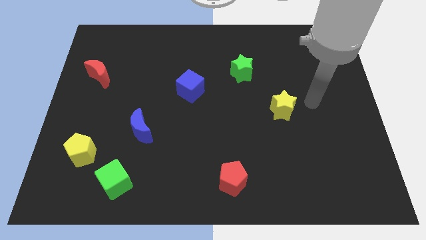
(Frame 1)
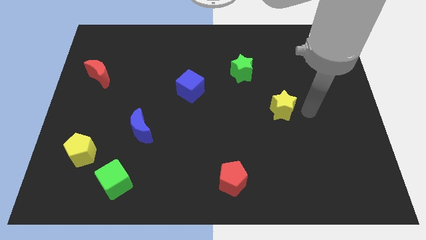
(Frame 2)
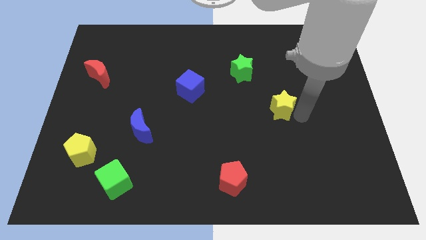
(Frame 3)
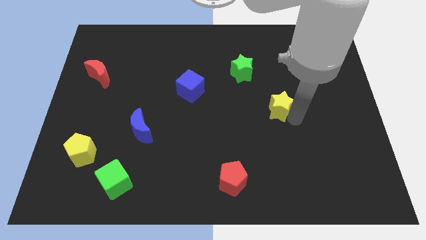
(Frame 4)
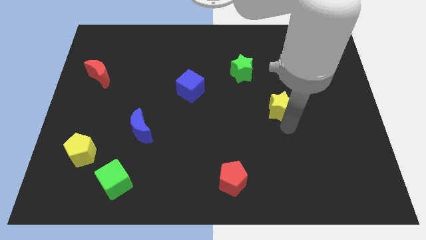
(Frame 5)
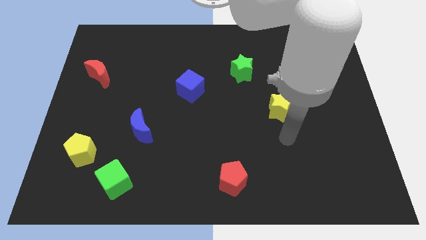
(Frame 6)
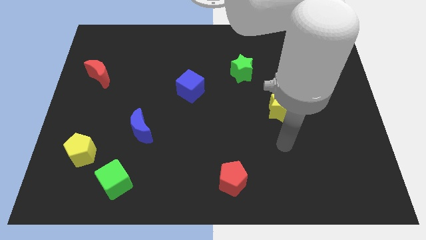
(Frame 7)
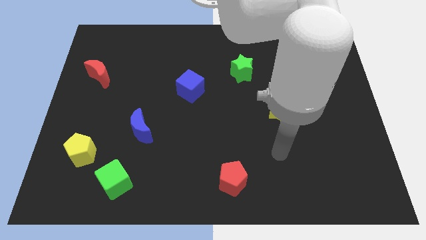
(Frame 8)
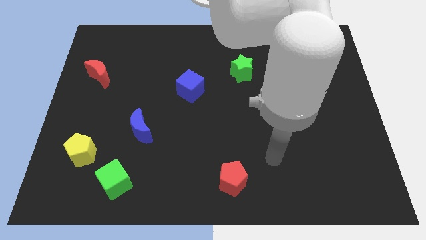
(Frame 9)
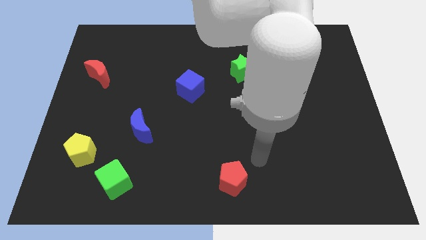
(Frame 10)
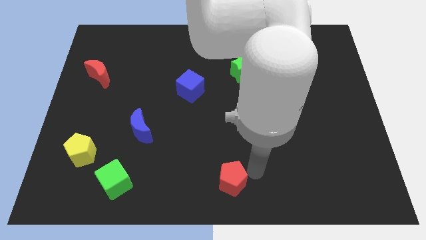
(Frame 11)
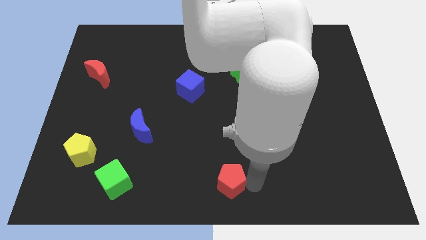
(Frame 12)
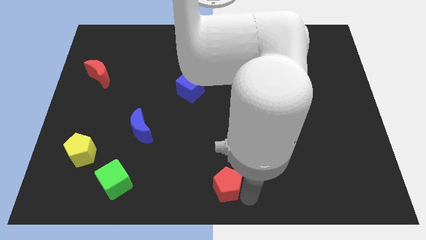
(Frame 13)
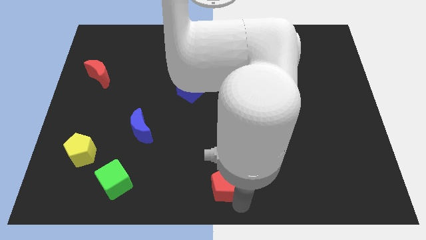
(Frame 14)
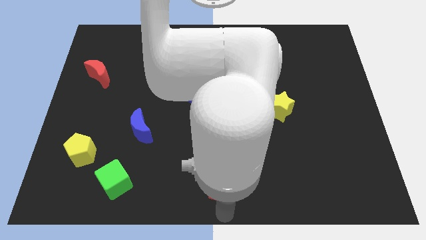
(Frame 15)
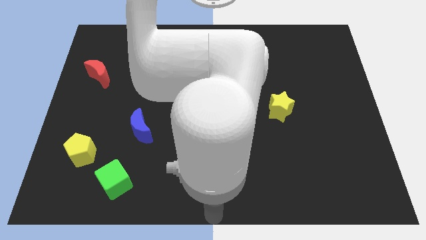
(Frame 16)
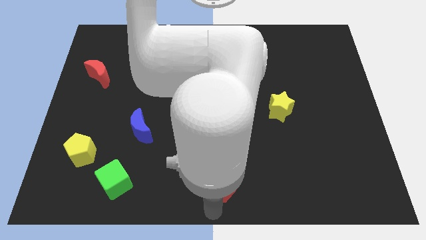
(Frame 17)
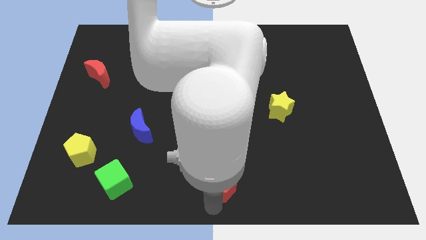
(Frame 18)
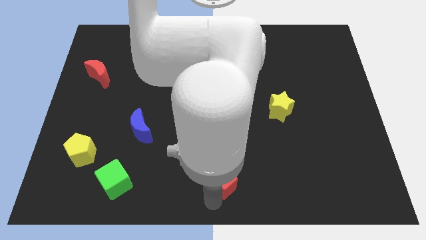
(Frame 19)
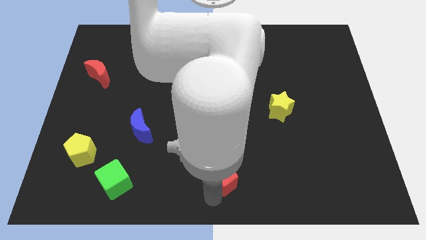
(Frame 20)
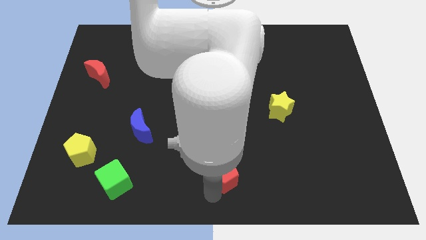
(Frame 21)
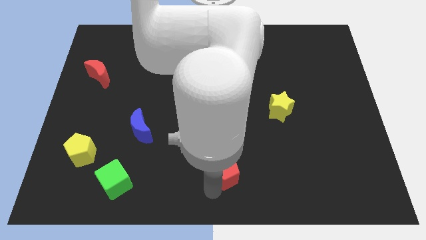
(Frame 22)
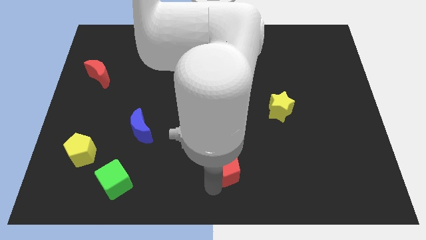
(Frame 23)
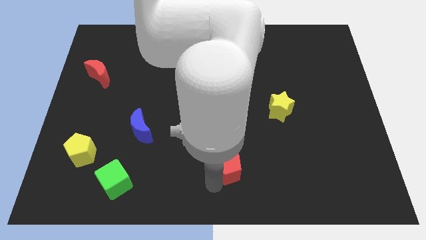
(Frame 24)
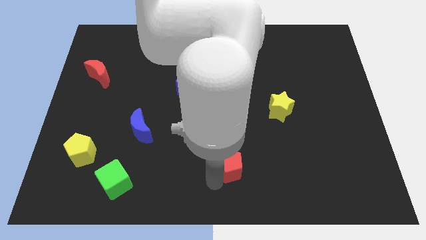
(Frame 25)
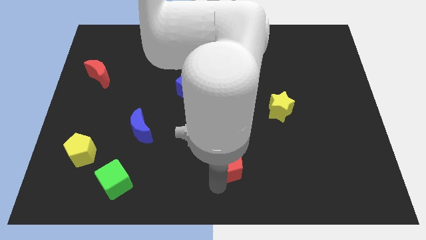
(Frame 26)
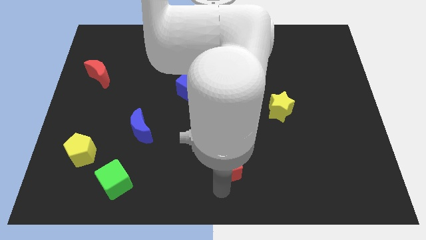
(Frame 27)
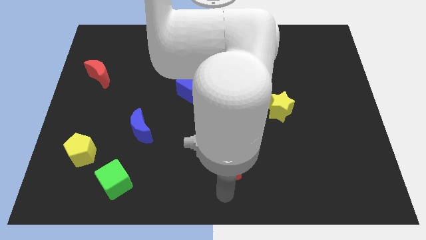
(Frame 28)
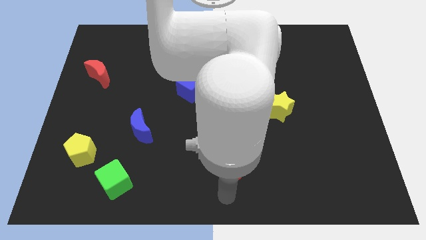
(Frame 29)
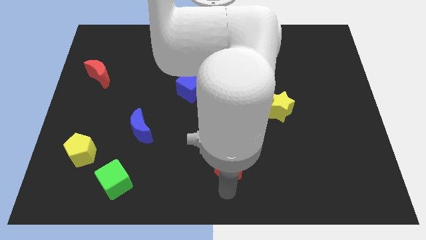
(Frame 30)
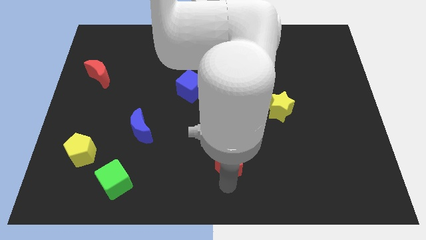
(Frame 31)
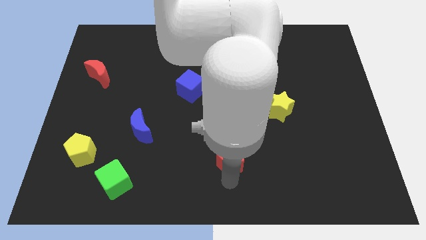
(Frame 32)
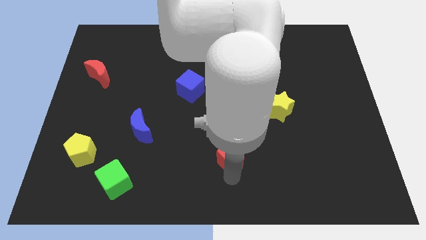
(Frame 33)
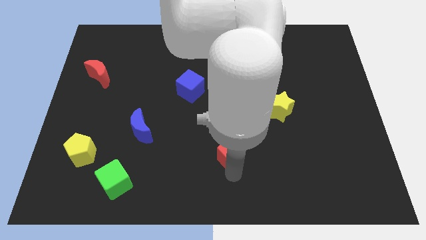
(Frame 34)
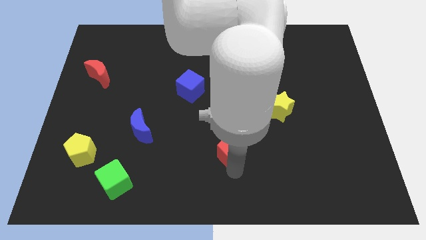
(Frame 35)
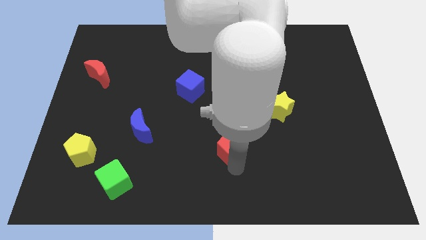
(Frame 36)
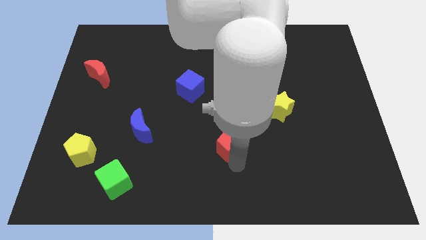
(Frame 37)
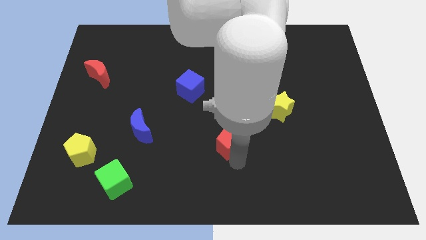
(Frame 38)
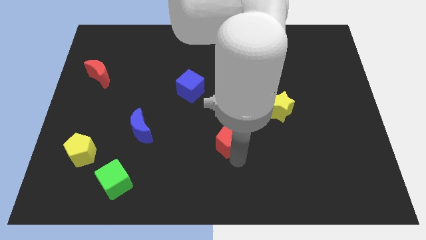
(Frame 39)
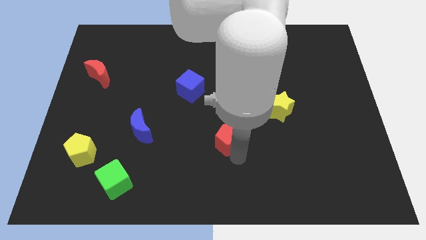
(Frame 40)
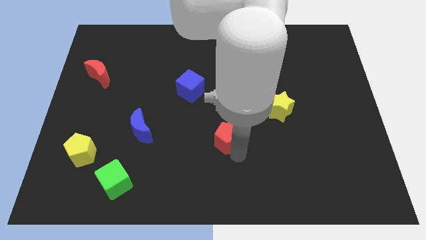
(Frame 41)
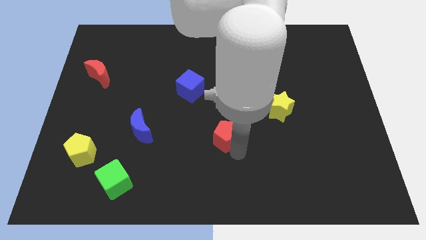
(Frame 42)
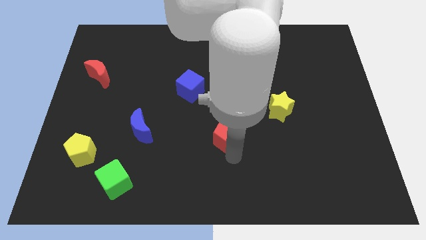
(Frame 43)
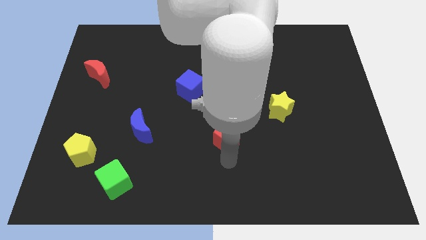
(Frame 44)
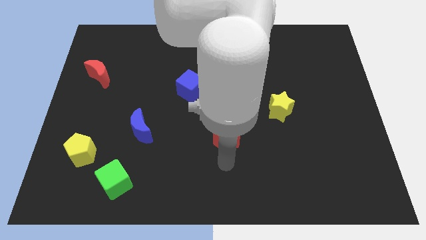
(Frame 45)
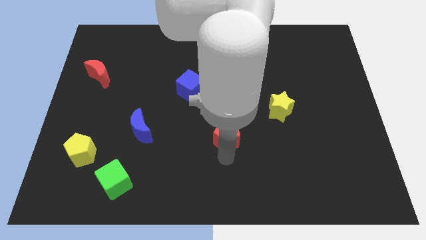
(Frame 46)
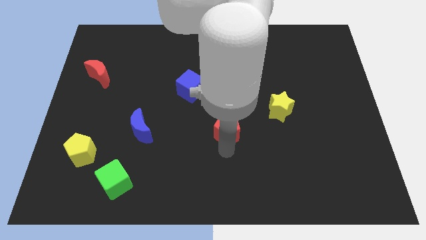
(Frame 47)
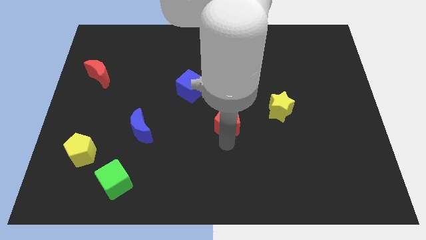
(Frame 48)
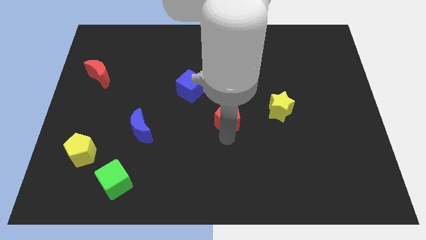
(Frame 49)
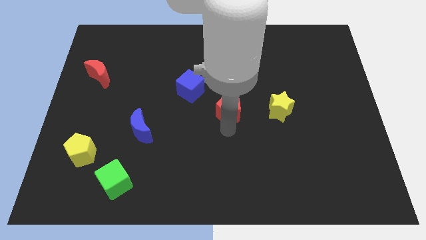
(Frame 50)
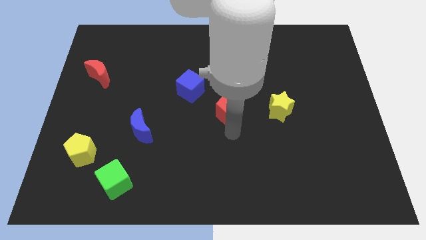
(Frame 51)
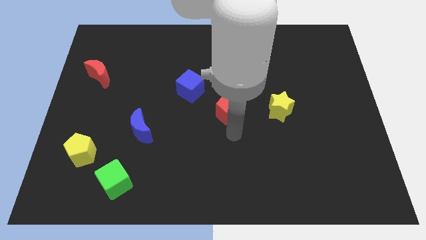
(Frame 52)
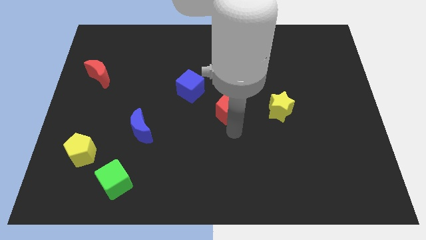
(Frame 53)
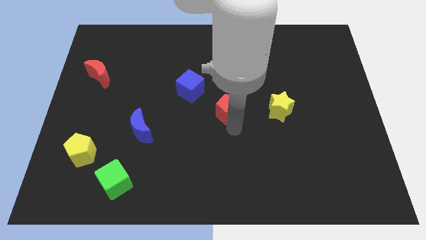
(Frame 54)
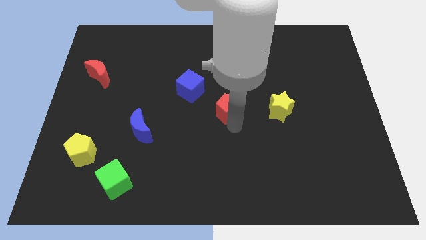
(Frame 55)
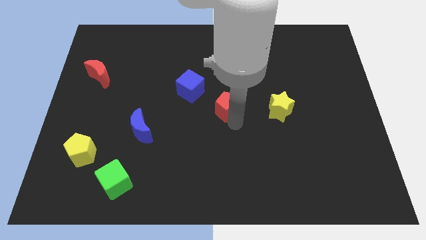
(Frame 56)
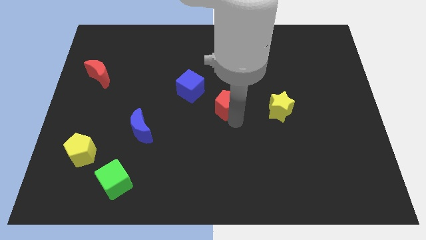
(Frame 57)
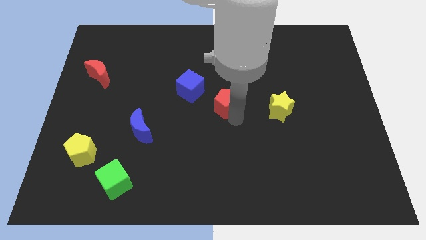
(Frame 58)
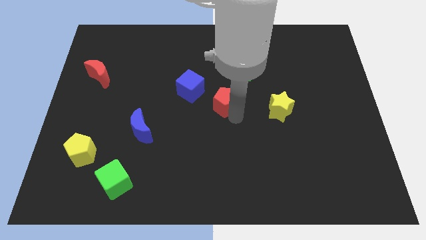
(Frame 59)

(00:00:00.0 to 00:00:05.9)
push the red pentagon upwards

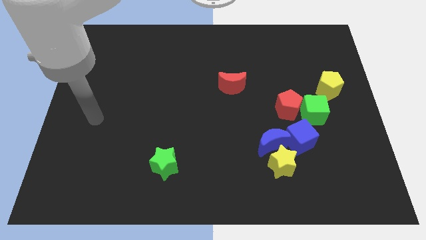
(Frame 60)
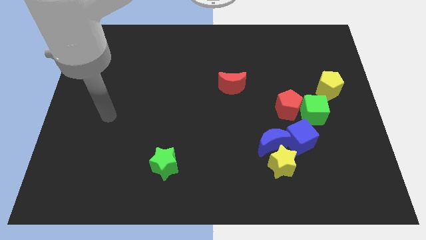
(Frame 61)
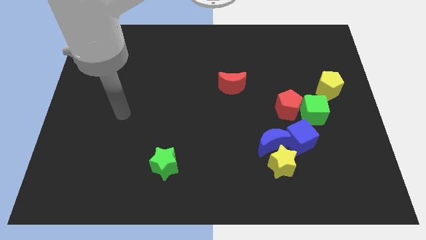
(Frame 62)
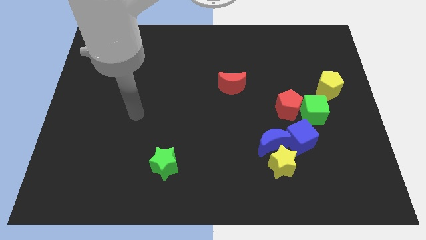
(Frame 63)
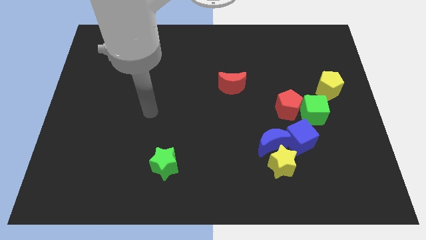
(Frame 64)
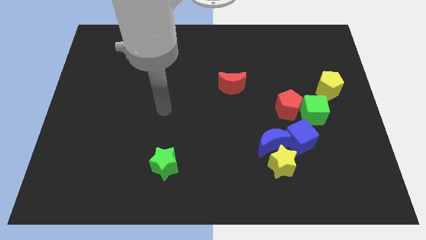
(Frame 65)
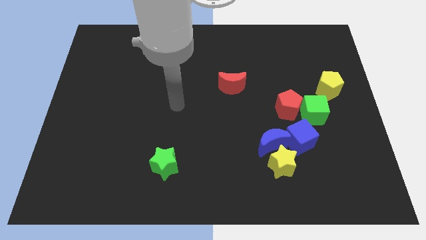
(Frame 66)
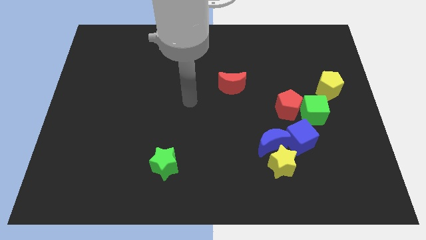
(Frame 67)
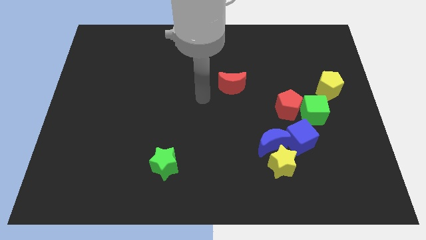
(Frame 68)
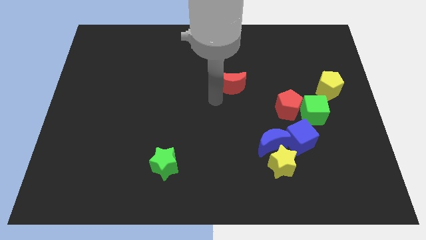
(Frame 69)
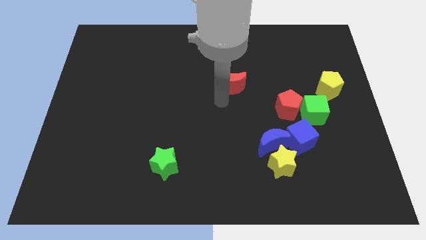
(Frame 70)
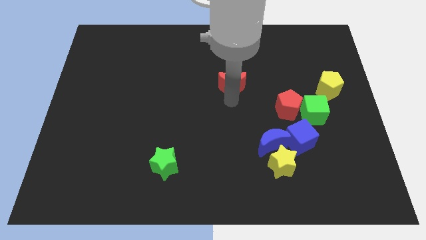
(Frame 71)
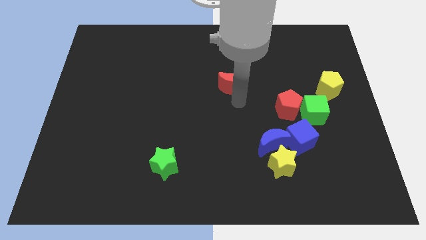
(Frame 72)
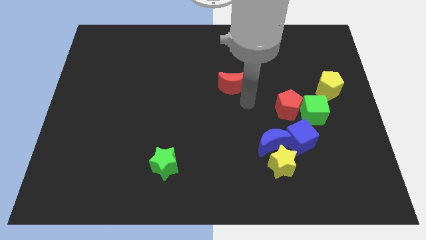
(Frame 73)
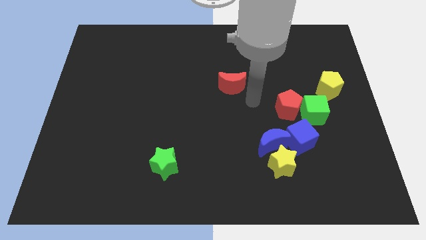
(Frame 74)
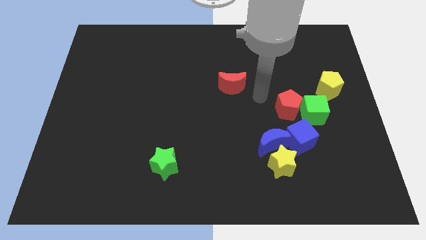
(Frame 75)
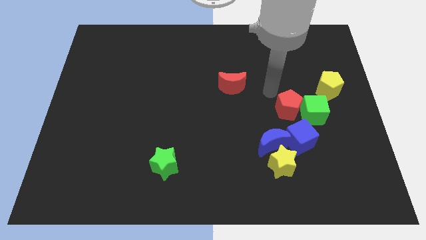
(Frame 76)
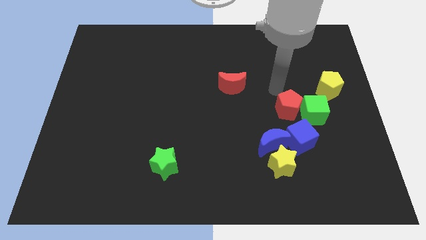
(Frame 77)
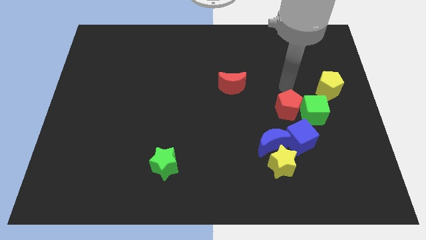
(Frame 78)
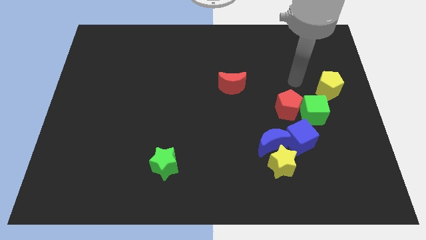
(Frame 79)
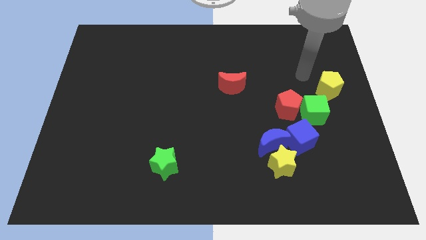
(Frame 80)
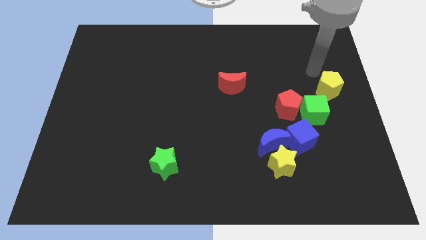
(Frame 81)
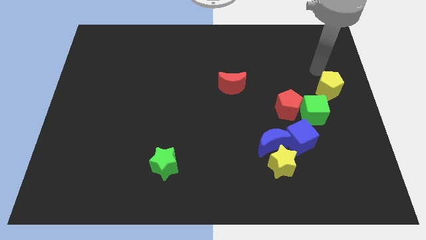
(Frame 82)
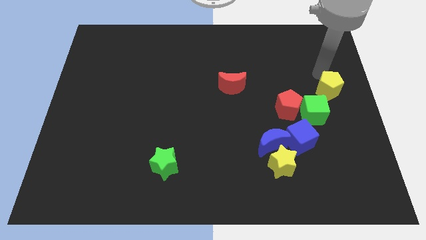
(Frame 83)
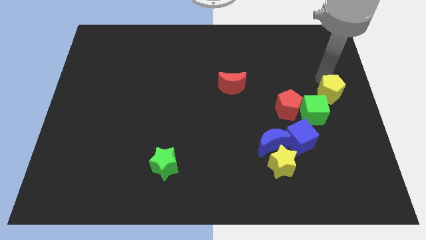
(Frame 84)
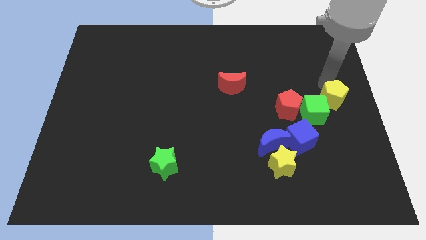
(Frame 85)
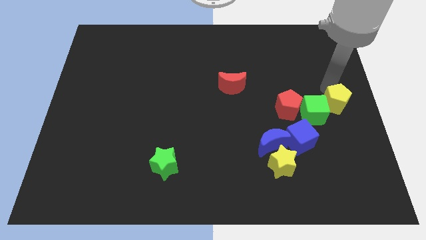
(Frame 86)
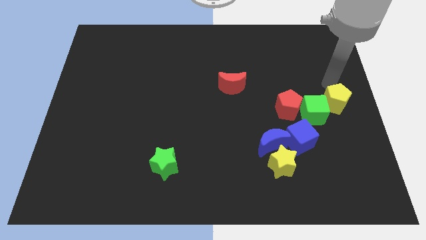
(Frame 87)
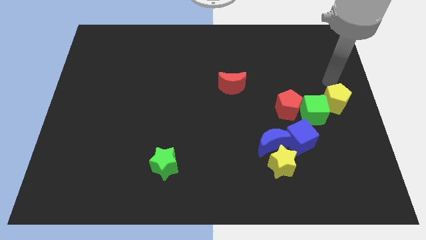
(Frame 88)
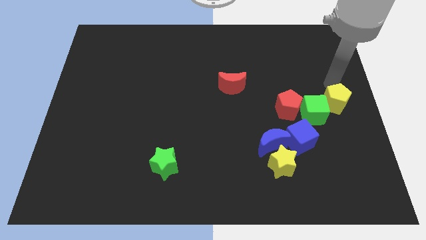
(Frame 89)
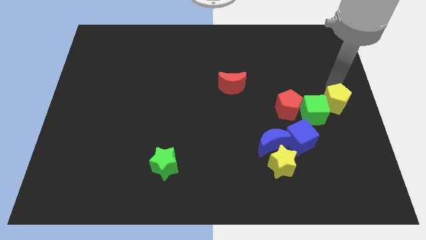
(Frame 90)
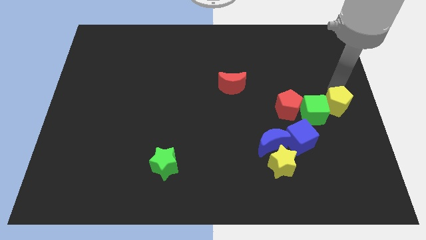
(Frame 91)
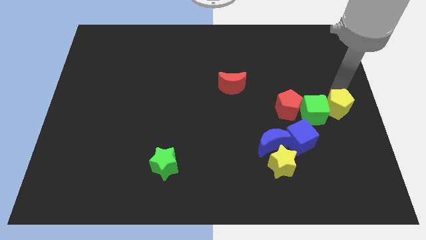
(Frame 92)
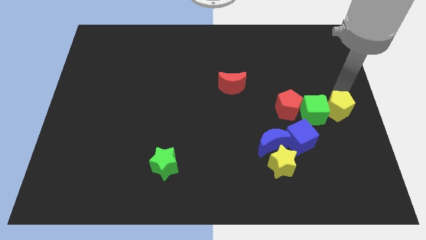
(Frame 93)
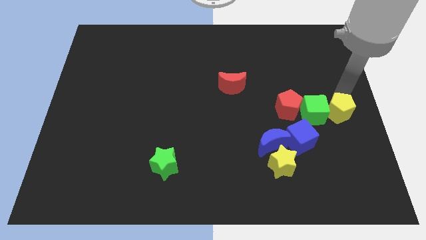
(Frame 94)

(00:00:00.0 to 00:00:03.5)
move the yellow pentagon down a bit
